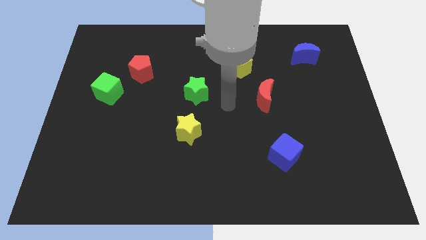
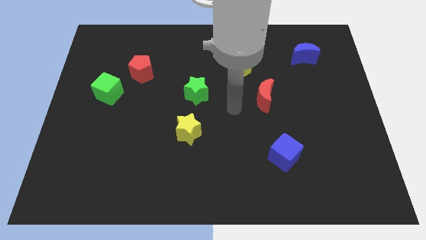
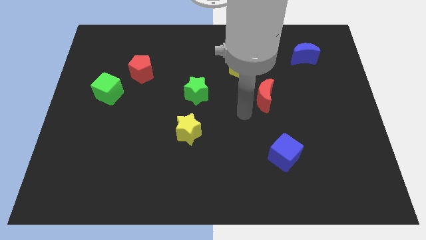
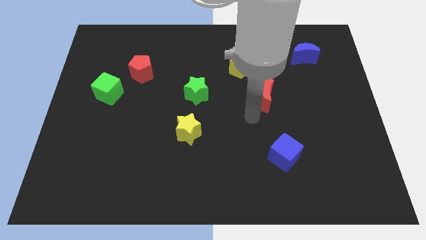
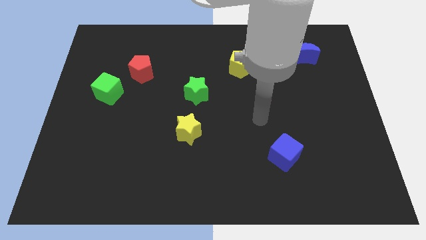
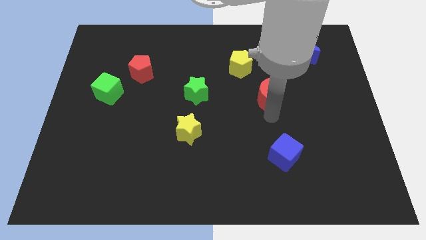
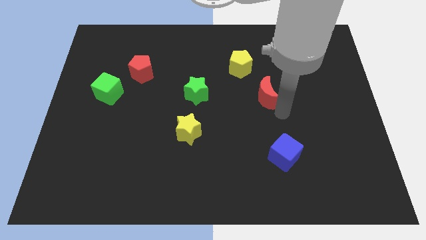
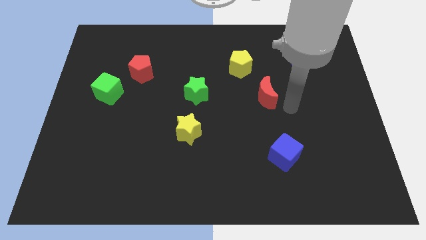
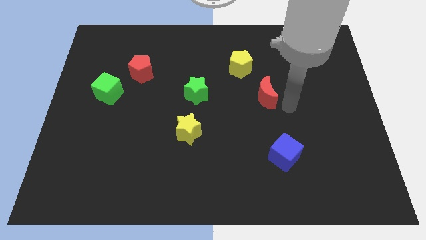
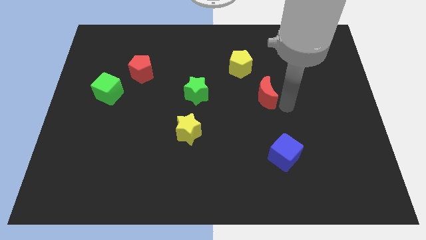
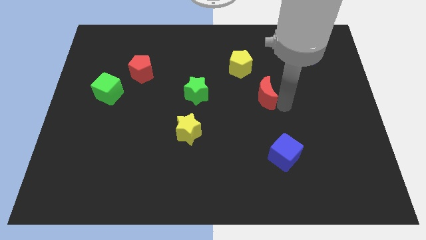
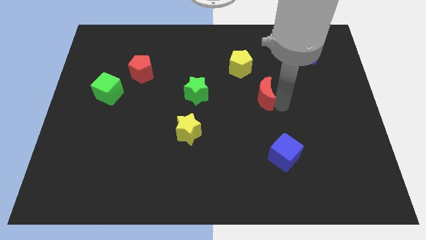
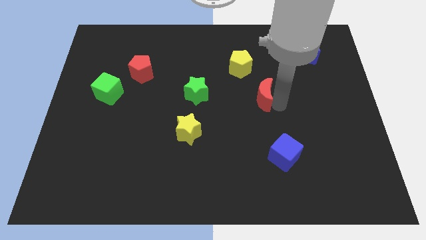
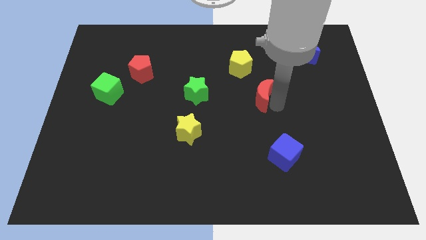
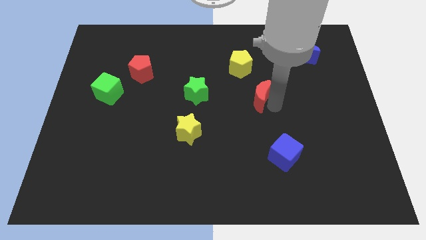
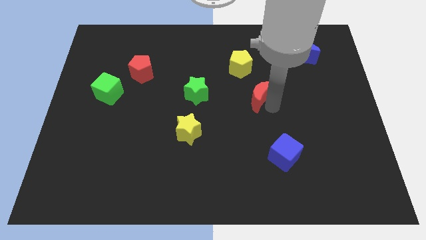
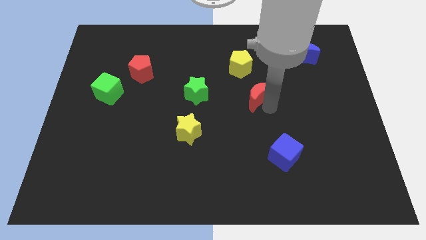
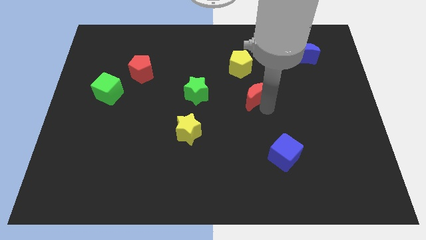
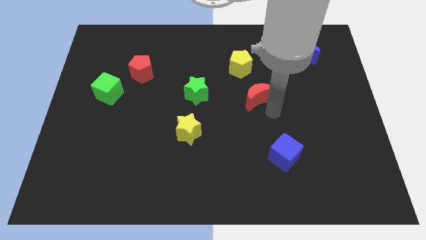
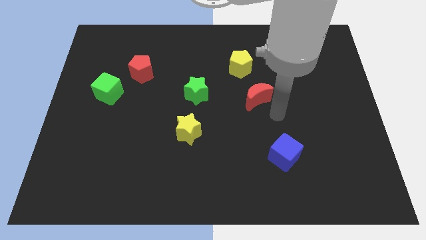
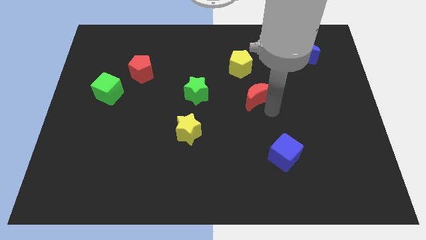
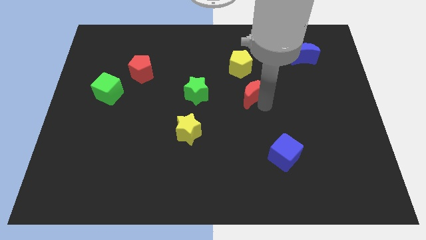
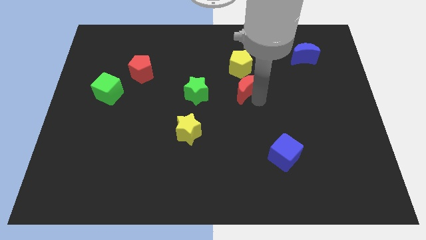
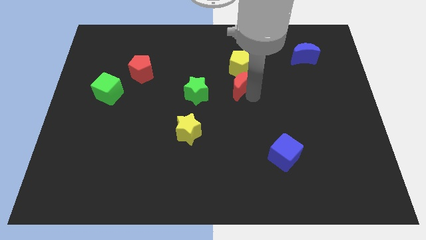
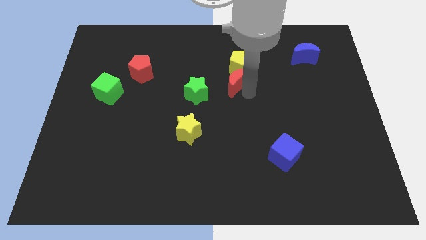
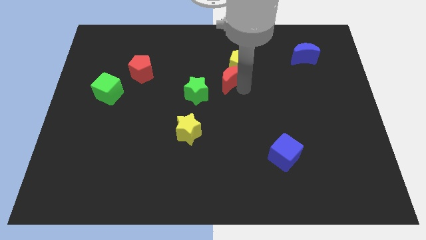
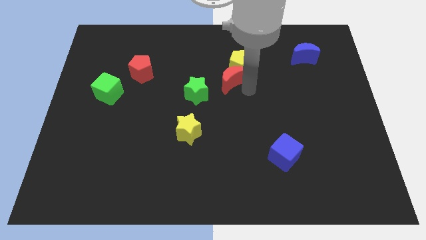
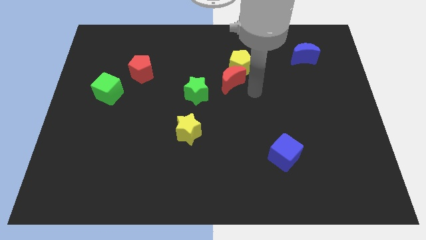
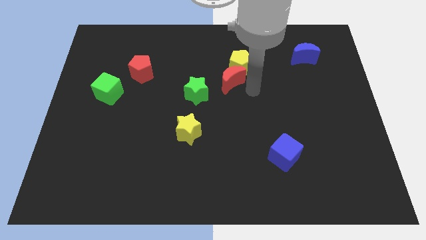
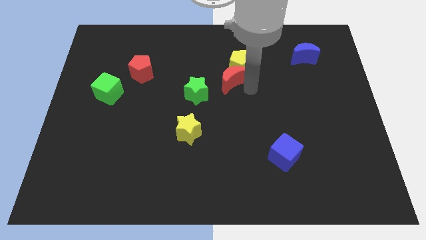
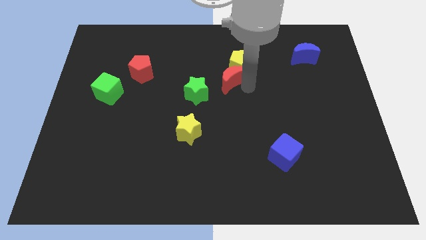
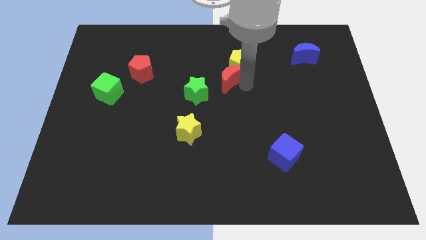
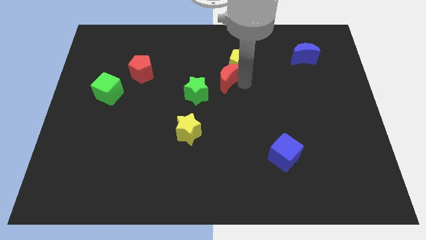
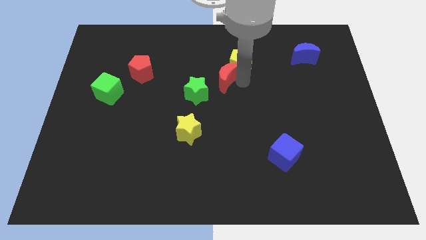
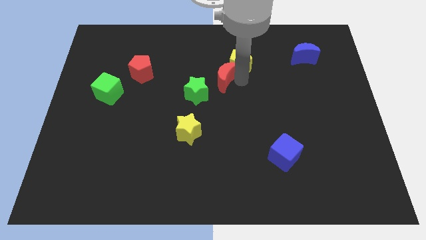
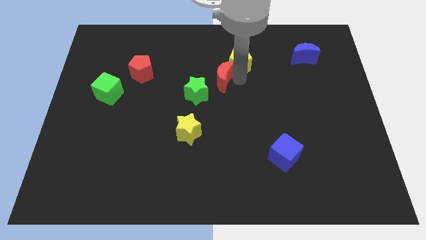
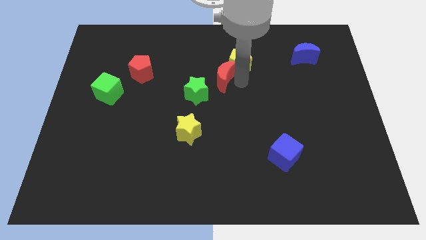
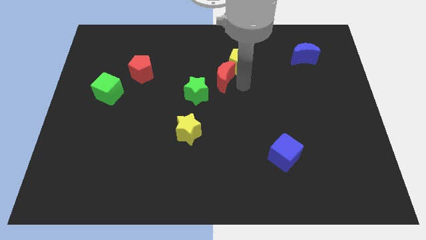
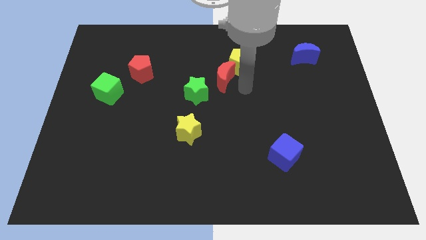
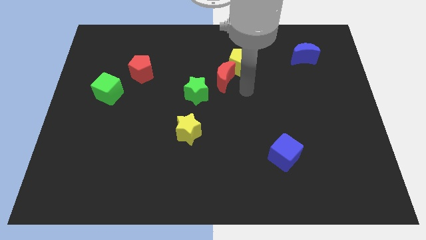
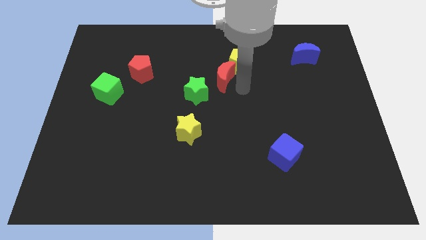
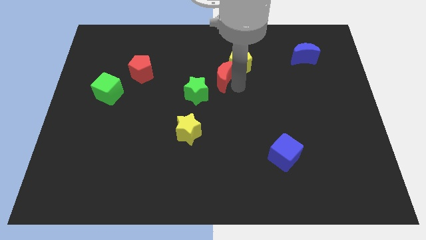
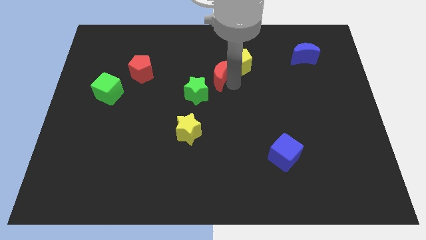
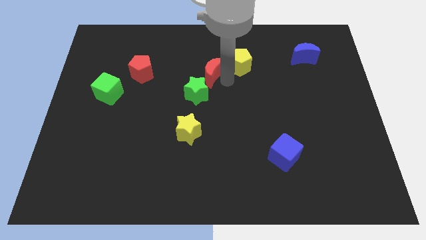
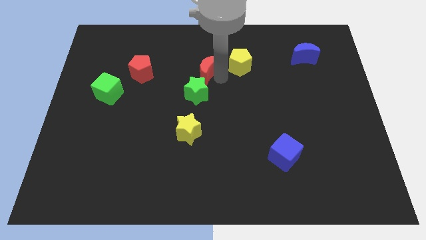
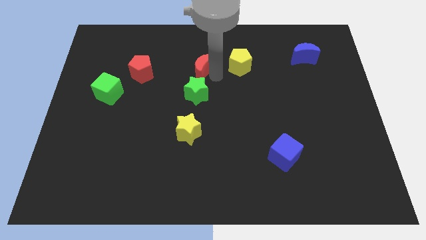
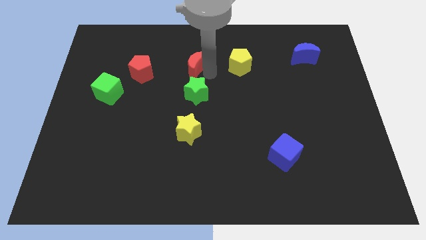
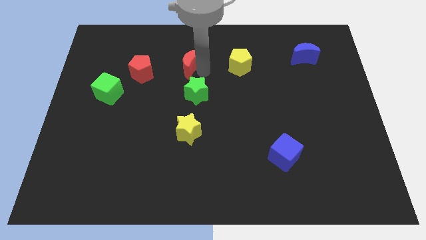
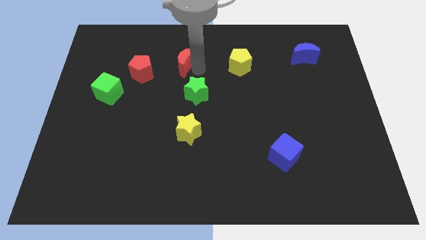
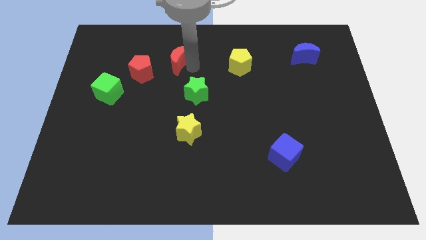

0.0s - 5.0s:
put the red moon diagonally up and to the right of the red pentagon

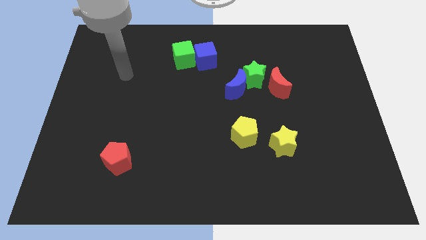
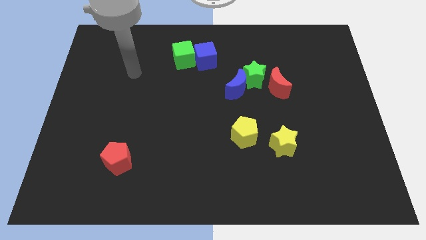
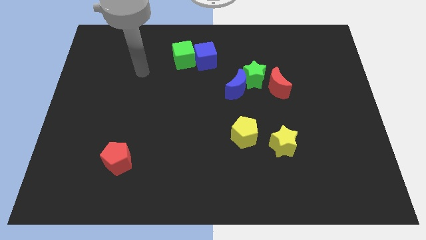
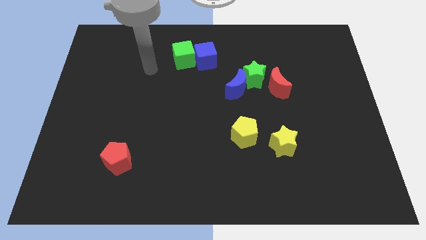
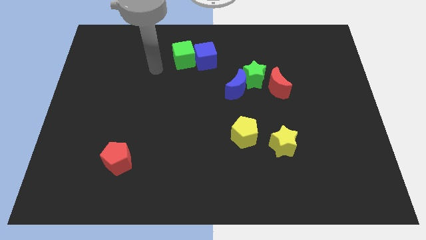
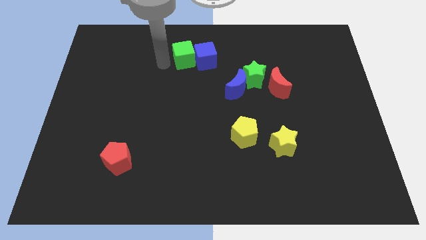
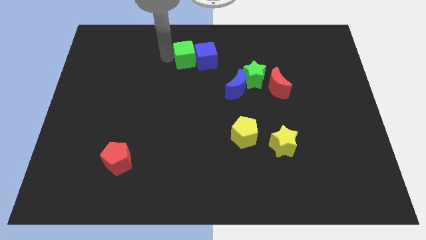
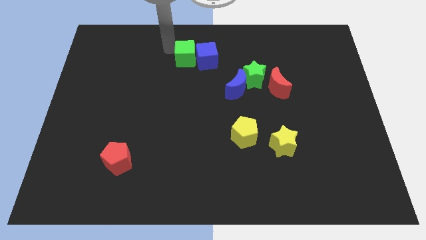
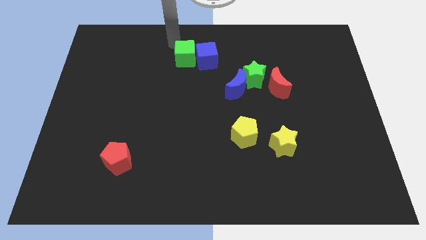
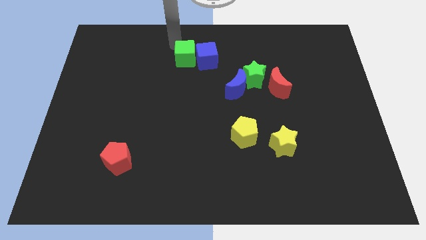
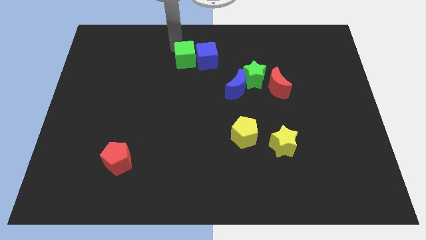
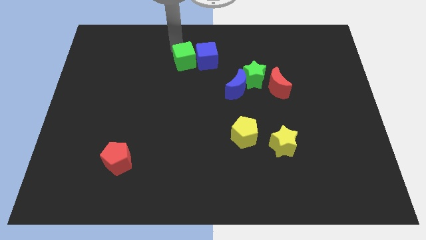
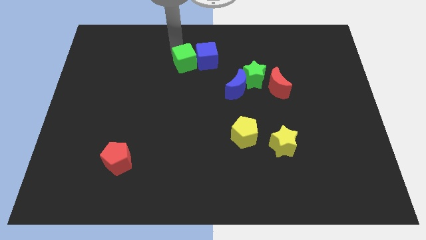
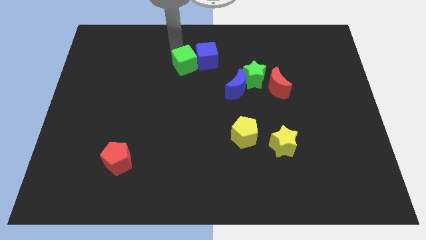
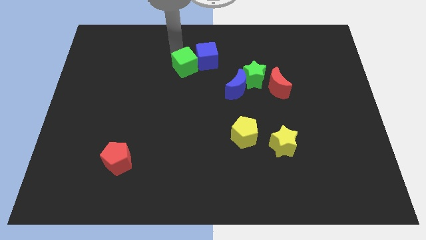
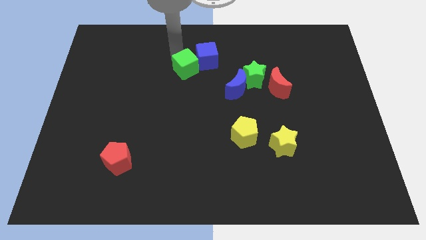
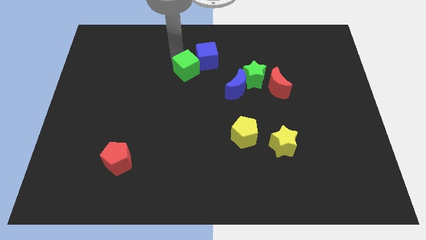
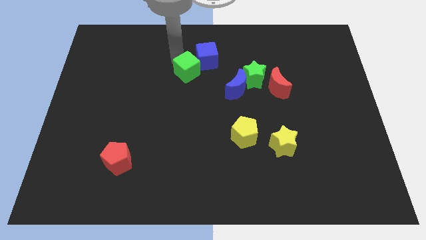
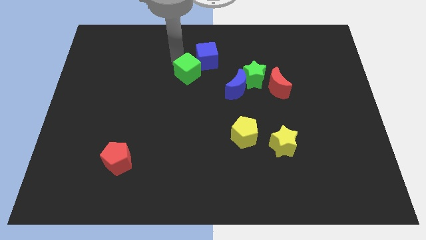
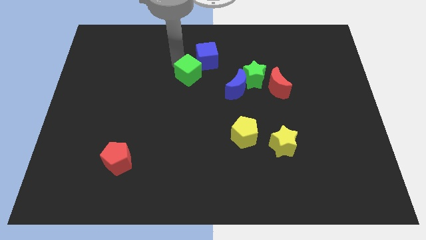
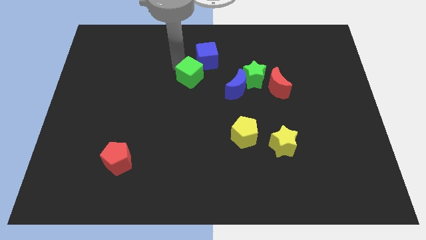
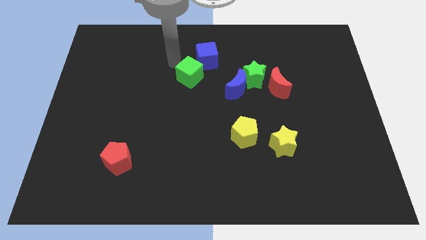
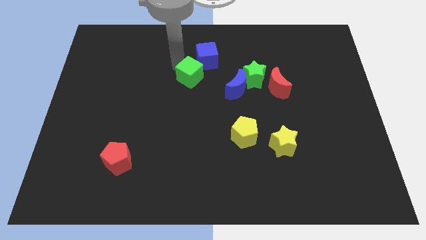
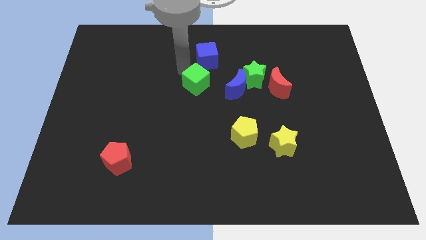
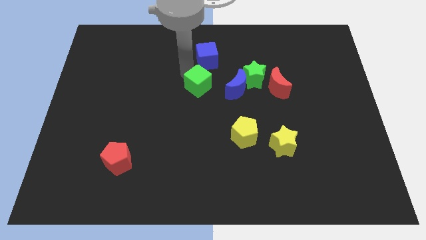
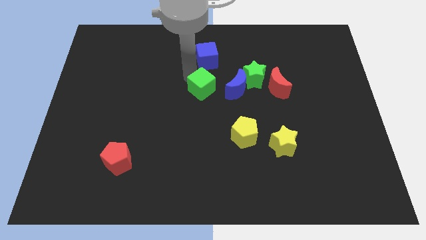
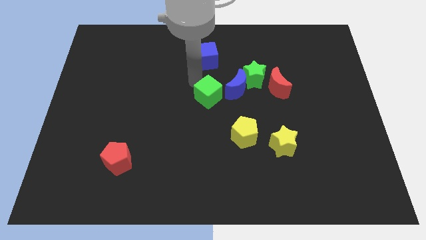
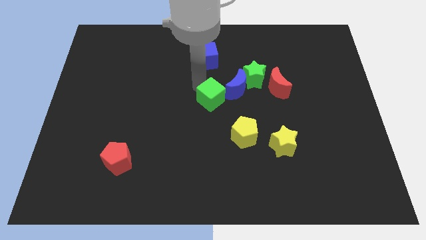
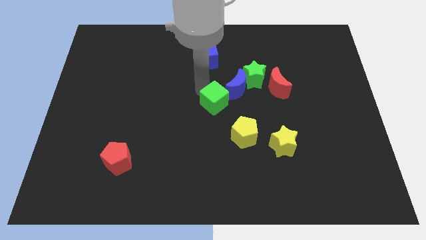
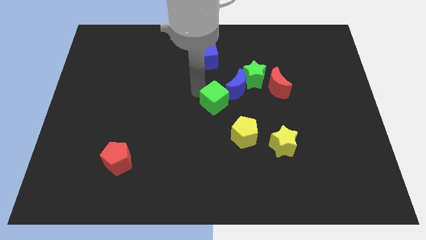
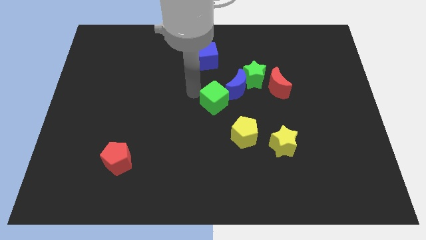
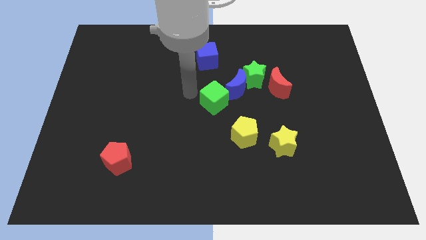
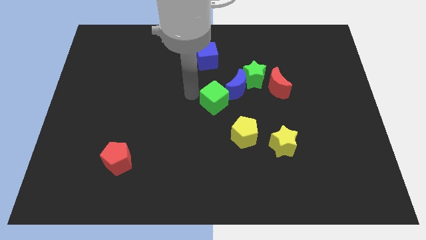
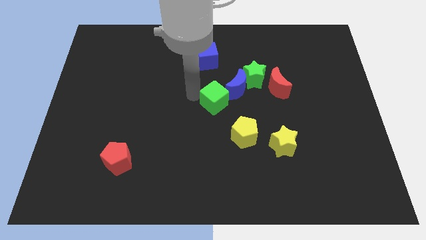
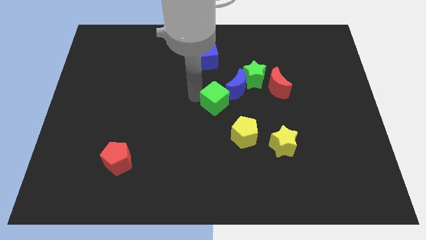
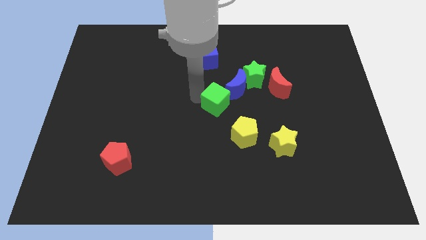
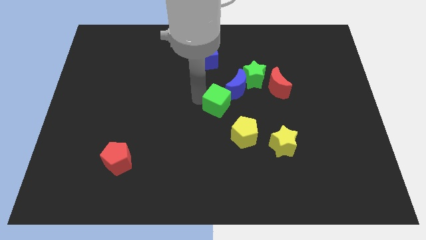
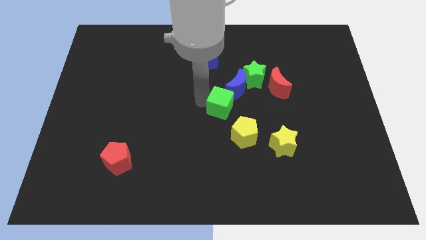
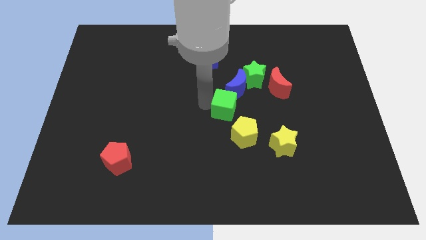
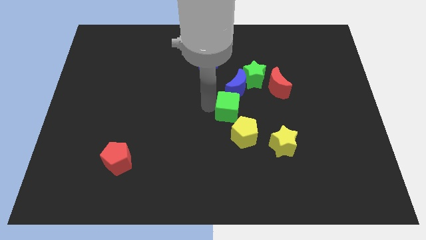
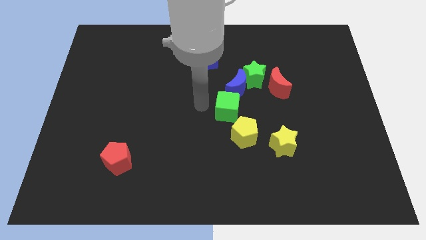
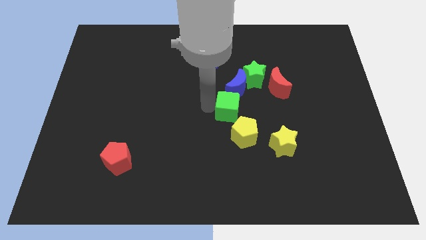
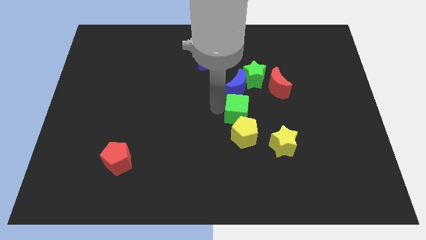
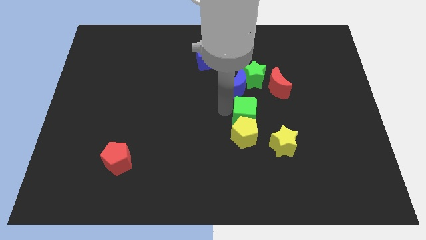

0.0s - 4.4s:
move the green cube to the top right of the yellow pentagon
